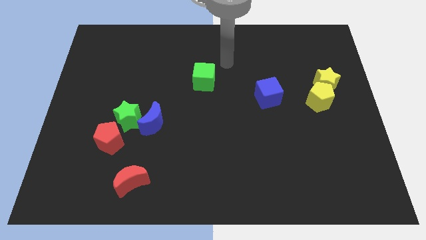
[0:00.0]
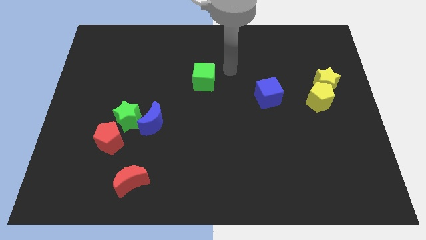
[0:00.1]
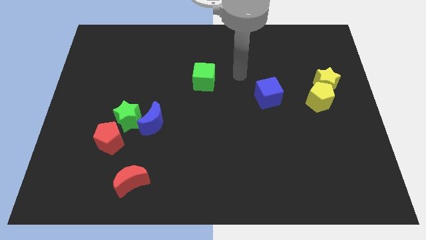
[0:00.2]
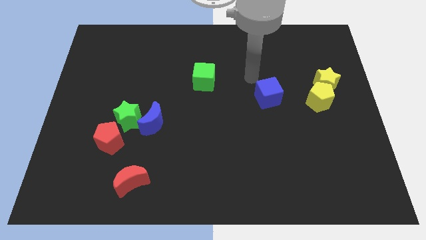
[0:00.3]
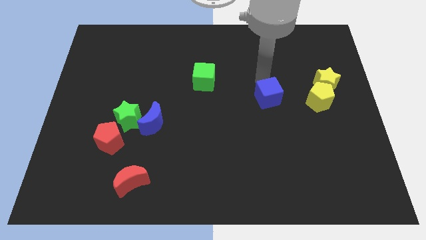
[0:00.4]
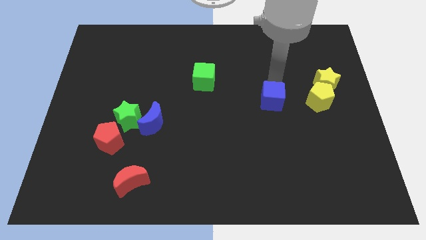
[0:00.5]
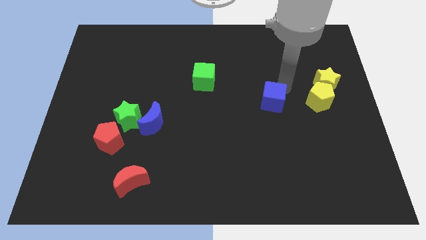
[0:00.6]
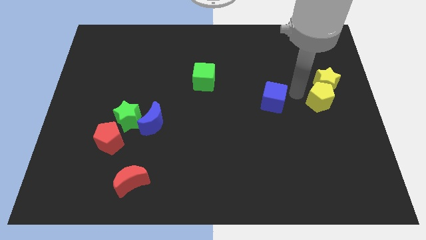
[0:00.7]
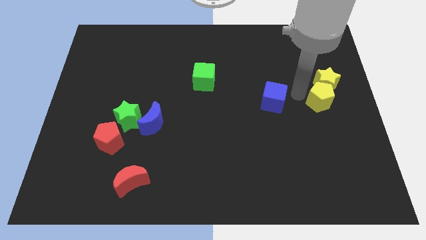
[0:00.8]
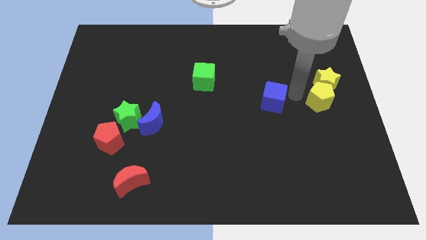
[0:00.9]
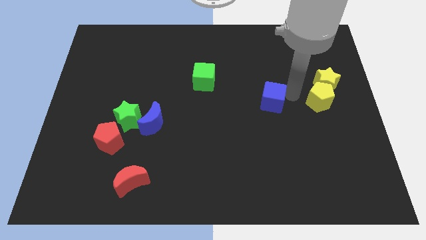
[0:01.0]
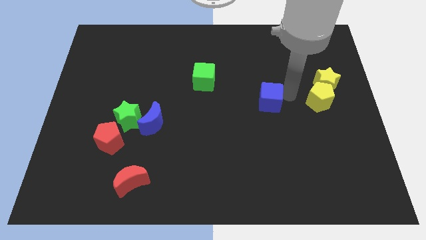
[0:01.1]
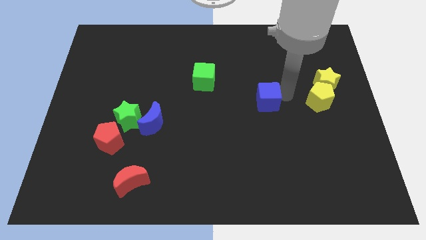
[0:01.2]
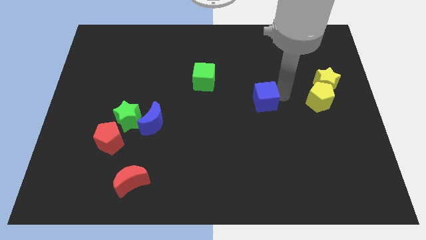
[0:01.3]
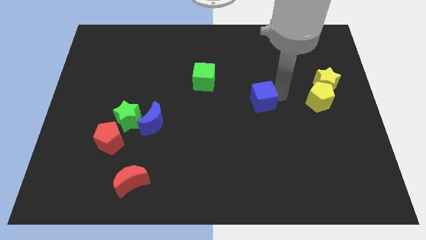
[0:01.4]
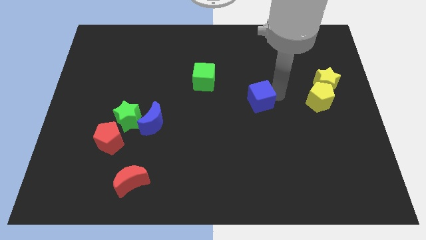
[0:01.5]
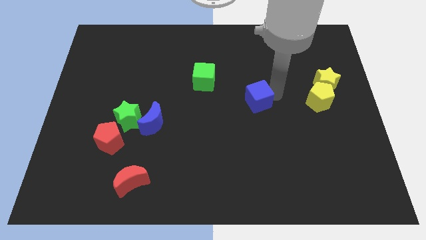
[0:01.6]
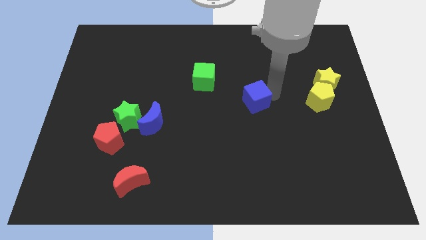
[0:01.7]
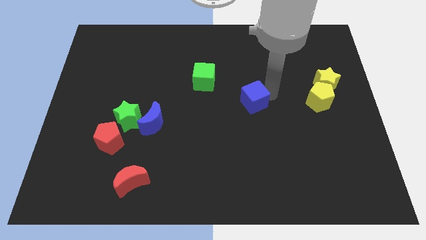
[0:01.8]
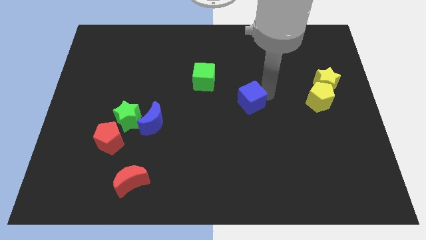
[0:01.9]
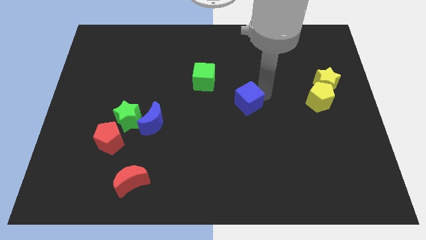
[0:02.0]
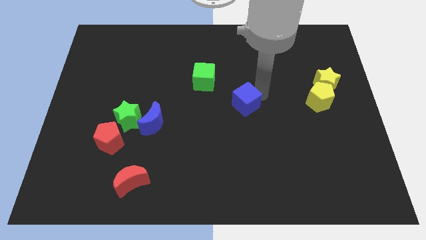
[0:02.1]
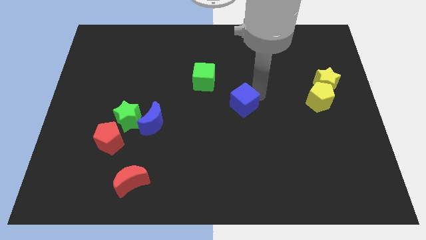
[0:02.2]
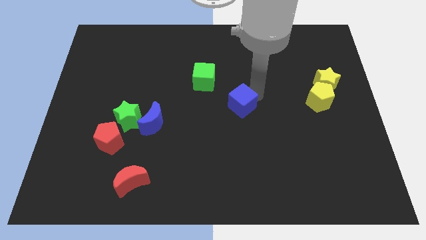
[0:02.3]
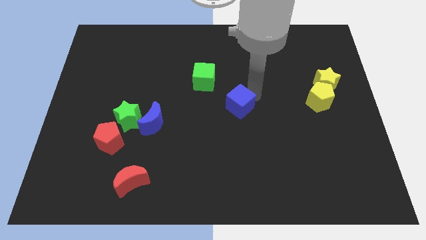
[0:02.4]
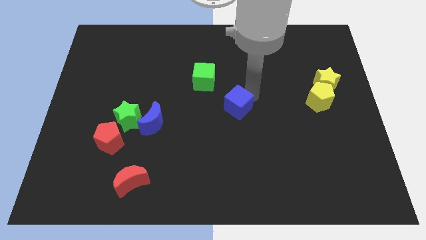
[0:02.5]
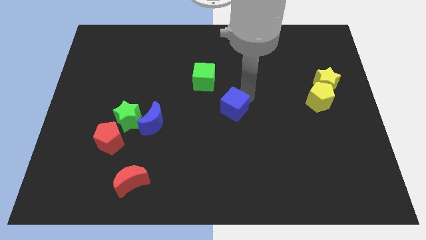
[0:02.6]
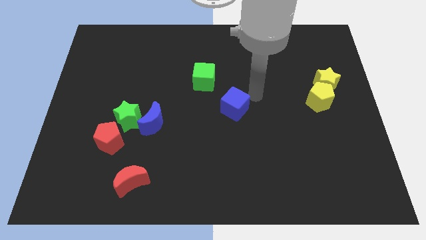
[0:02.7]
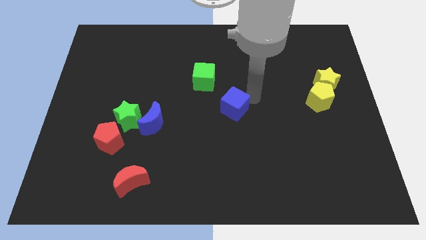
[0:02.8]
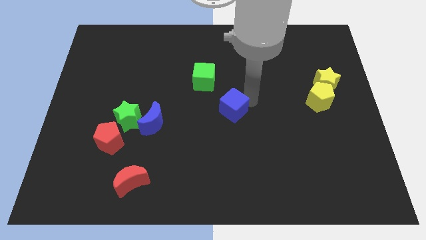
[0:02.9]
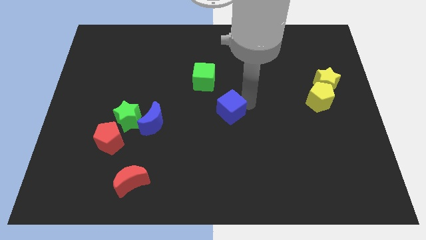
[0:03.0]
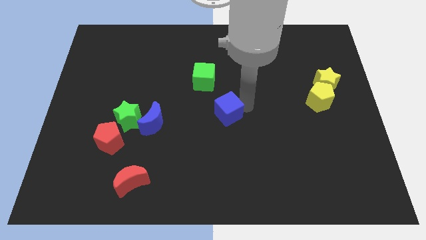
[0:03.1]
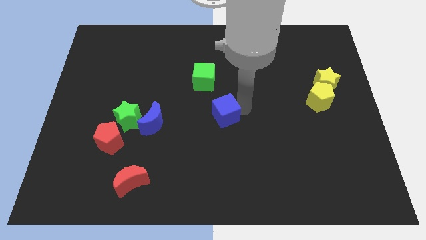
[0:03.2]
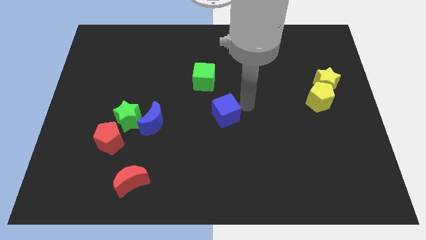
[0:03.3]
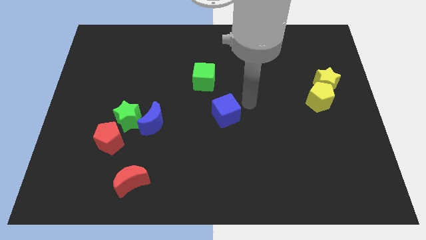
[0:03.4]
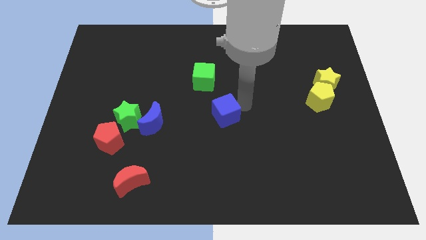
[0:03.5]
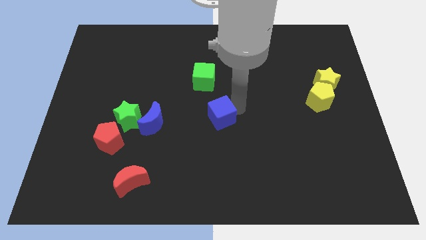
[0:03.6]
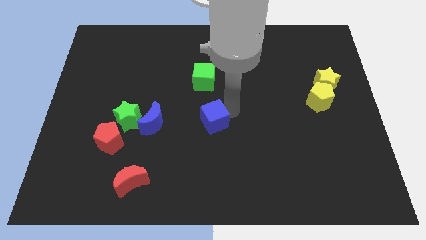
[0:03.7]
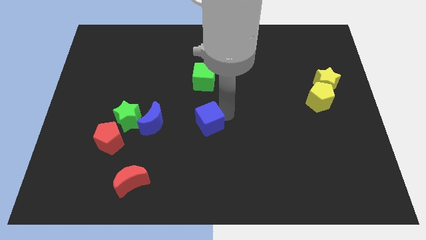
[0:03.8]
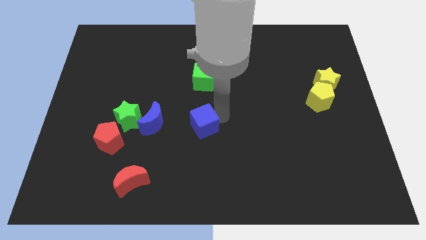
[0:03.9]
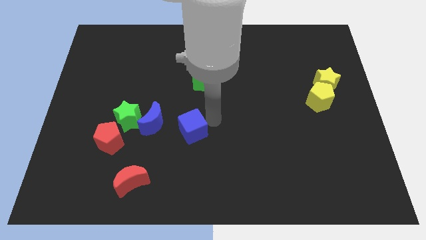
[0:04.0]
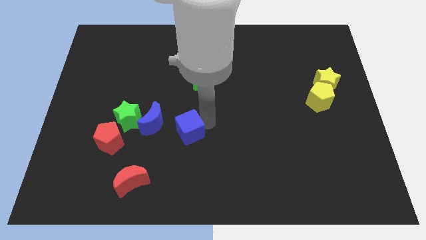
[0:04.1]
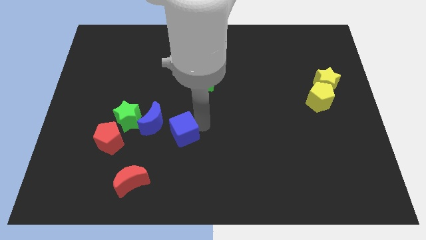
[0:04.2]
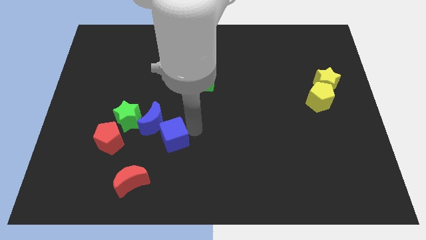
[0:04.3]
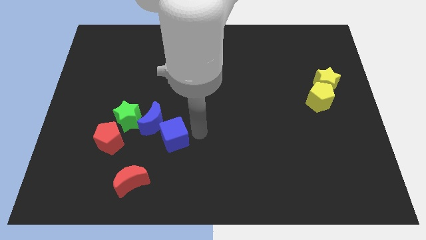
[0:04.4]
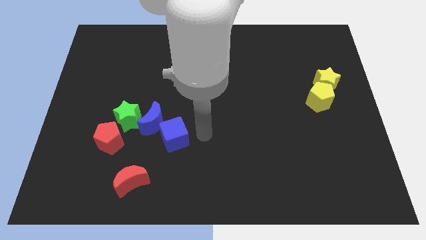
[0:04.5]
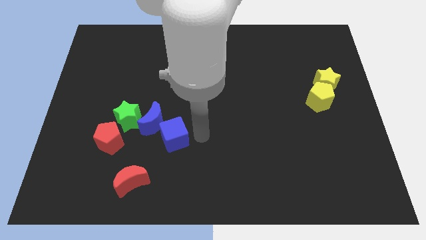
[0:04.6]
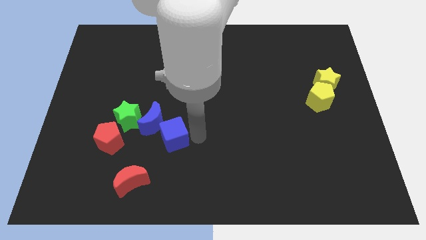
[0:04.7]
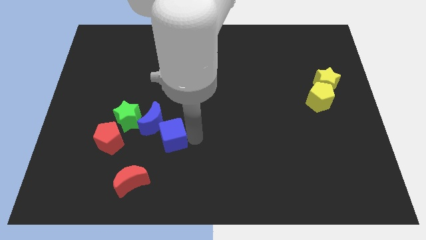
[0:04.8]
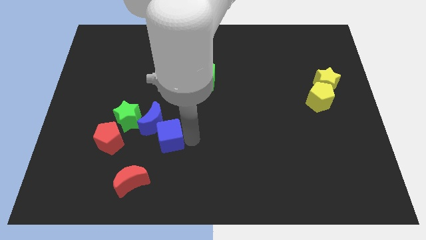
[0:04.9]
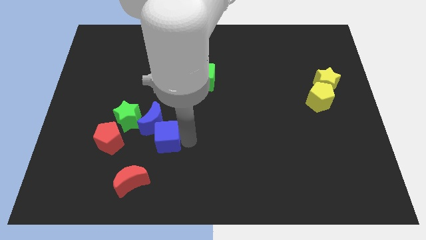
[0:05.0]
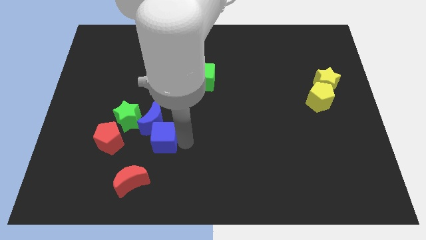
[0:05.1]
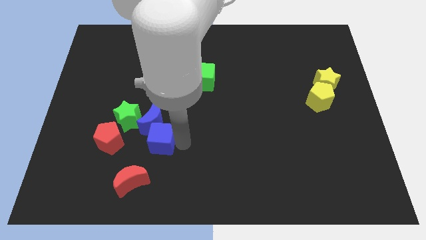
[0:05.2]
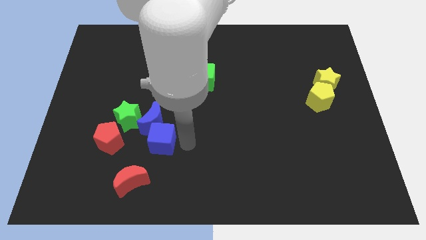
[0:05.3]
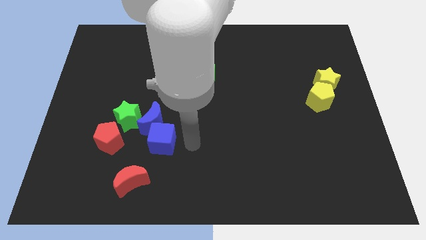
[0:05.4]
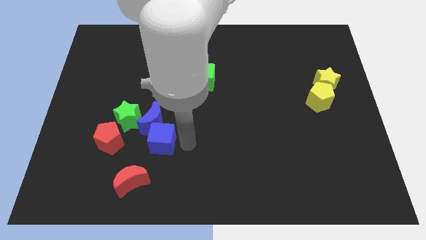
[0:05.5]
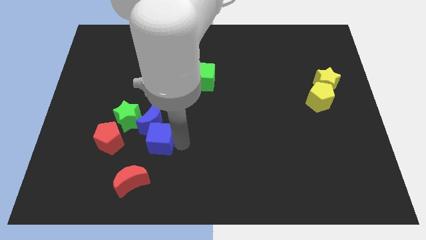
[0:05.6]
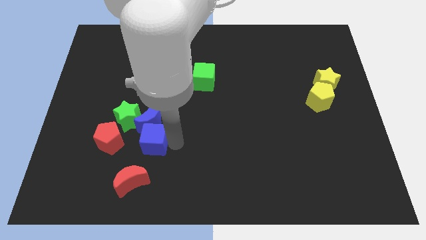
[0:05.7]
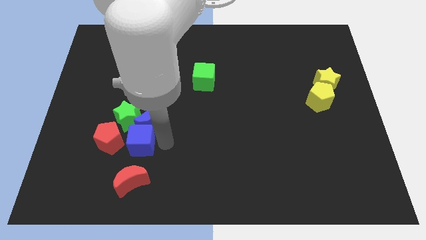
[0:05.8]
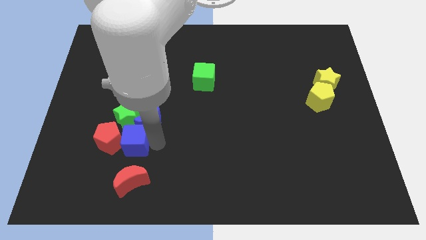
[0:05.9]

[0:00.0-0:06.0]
slide the blue cube to the red pentagon

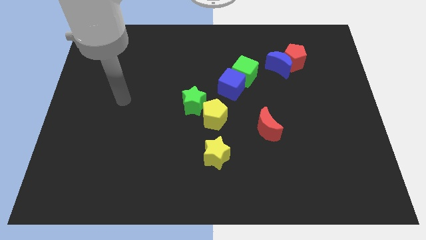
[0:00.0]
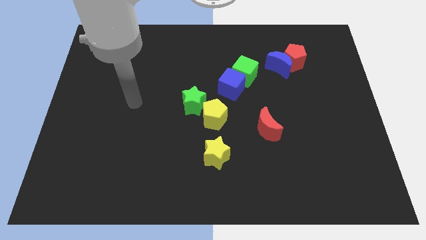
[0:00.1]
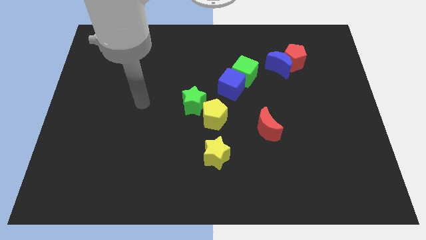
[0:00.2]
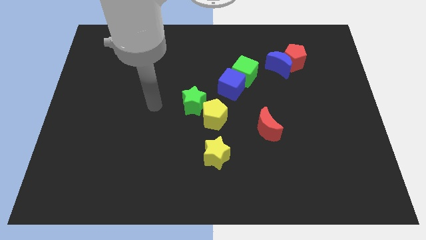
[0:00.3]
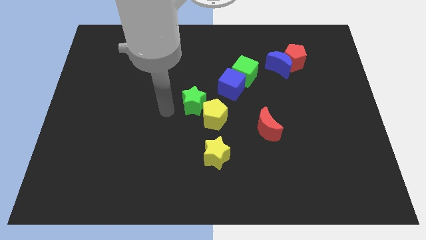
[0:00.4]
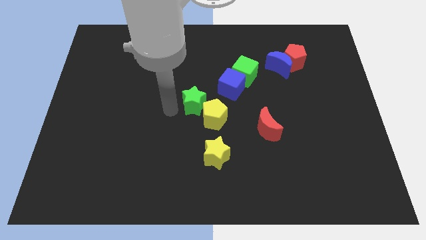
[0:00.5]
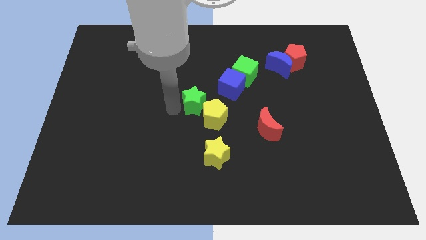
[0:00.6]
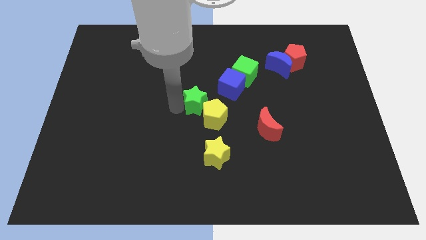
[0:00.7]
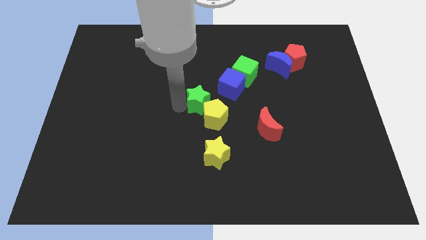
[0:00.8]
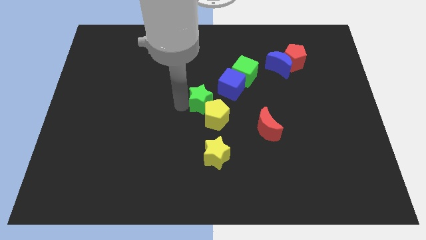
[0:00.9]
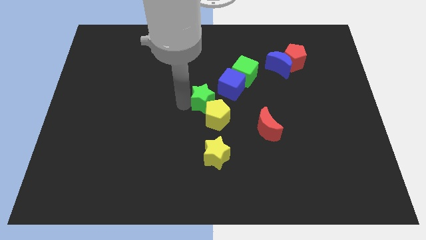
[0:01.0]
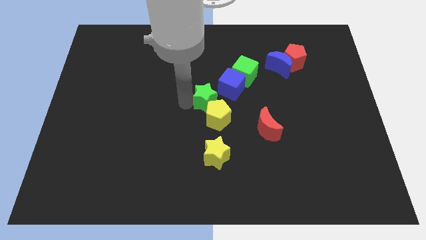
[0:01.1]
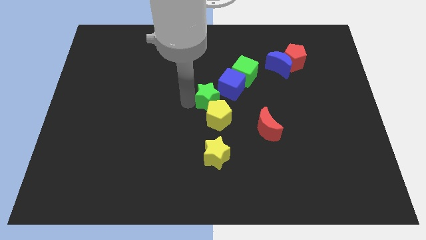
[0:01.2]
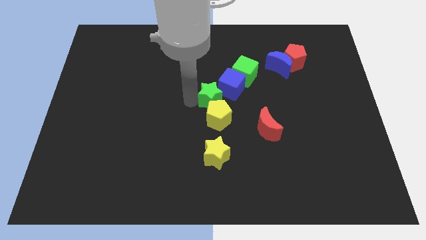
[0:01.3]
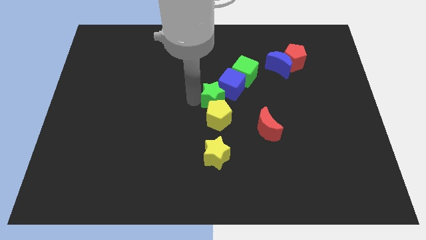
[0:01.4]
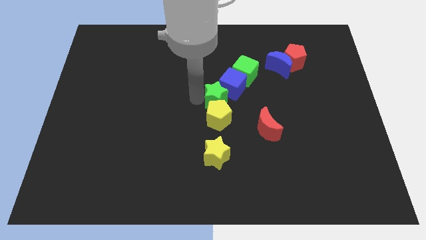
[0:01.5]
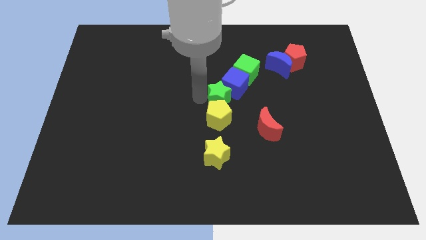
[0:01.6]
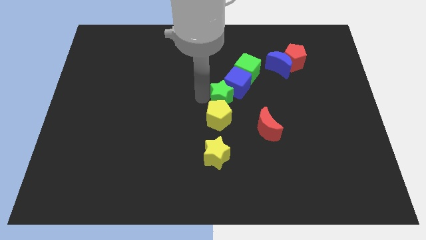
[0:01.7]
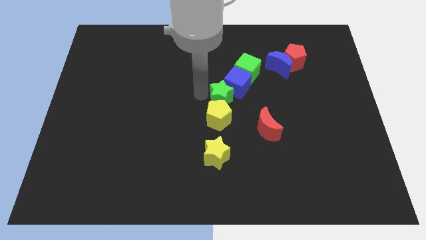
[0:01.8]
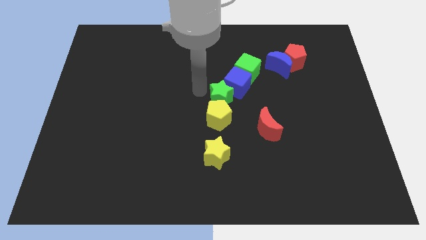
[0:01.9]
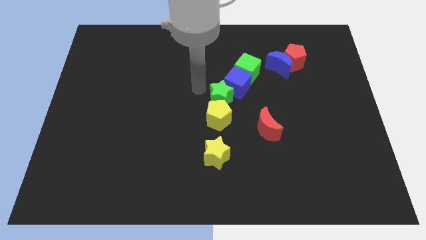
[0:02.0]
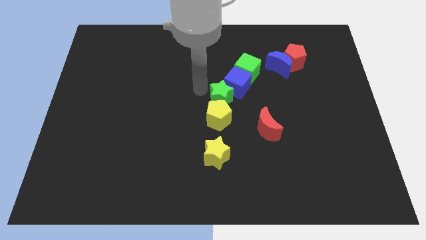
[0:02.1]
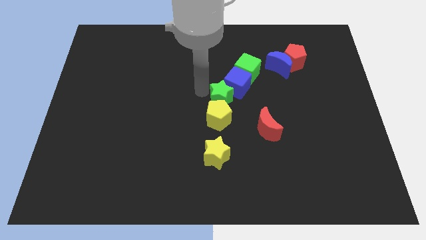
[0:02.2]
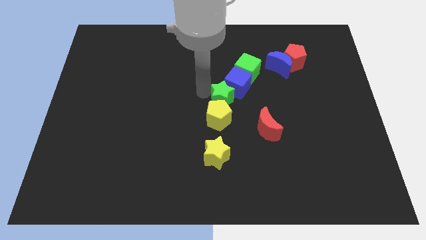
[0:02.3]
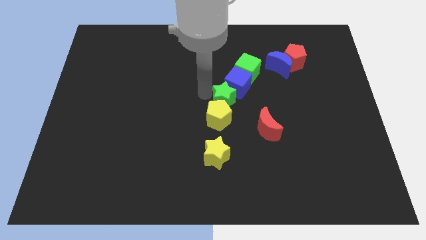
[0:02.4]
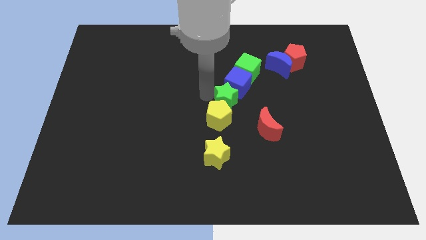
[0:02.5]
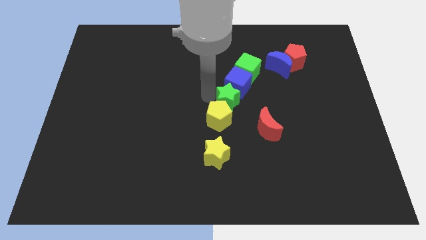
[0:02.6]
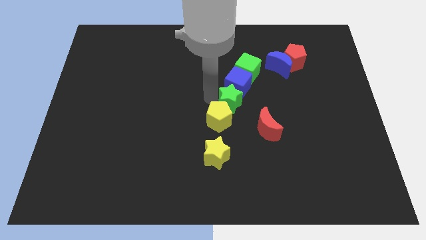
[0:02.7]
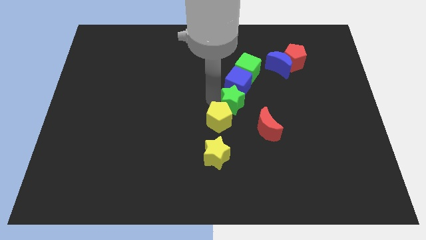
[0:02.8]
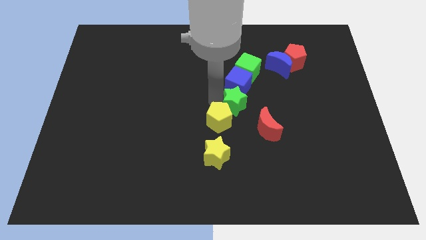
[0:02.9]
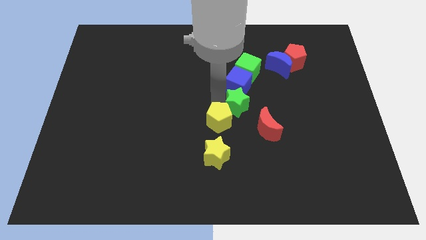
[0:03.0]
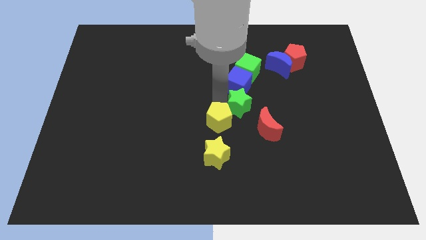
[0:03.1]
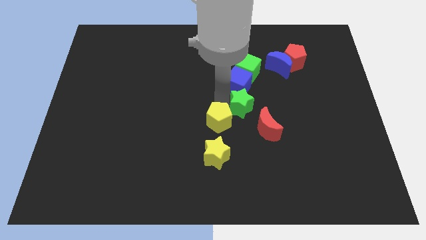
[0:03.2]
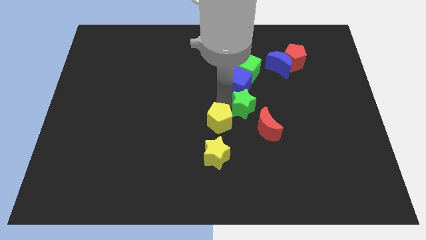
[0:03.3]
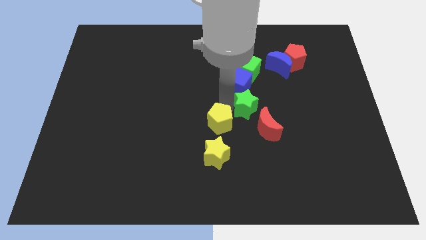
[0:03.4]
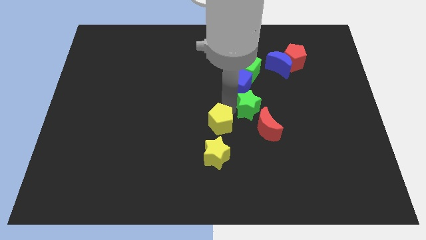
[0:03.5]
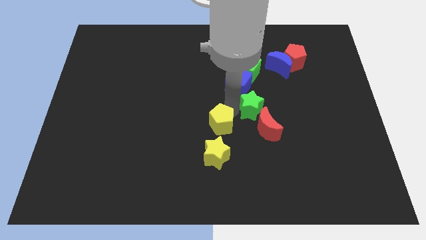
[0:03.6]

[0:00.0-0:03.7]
put the green star to the red moon
